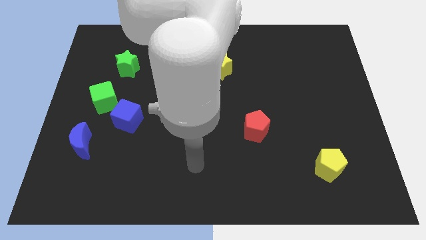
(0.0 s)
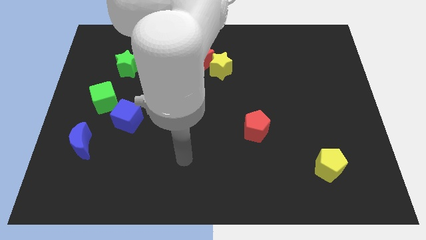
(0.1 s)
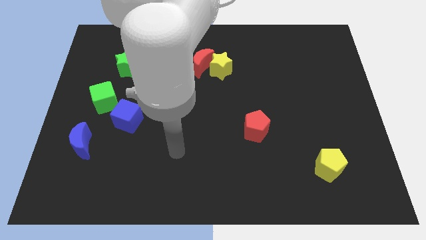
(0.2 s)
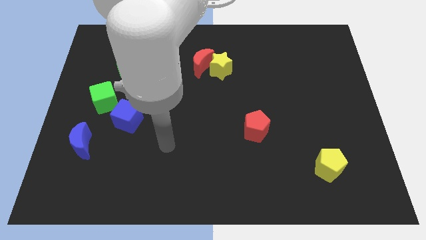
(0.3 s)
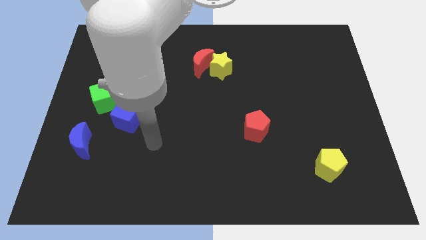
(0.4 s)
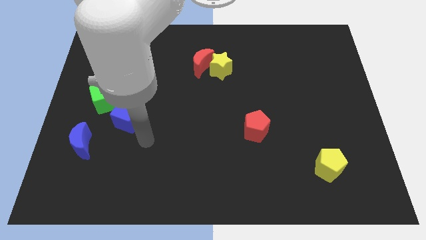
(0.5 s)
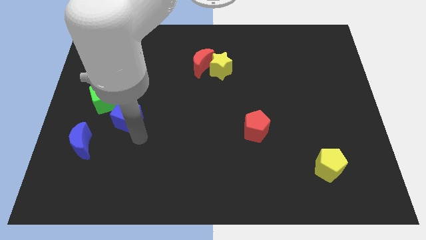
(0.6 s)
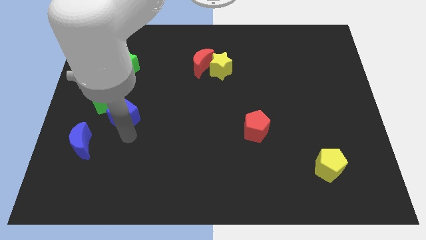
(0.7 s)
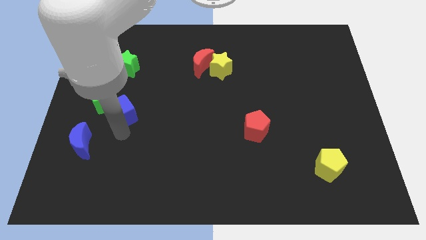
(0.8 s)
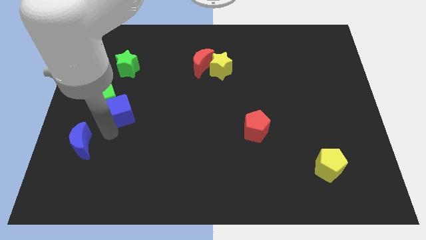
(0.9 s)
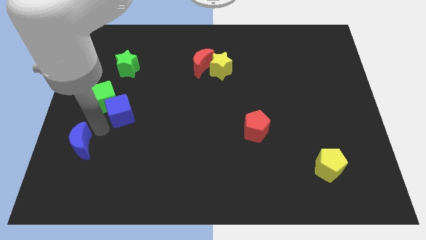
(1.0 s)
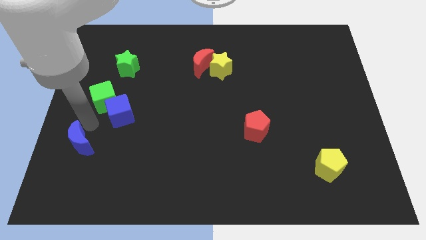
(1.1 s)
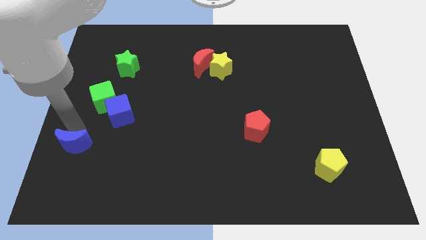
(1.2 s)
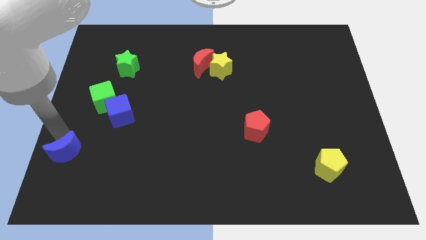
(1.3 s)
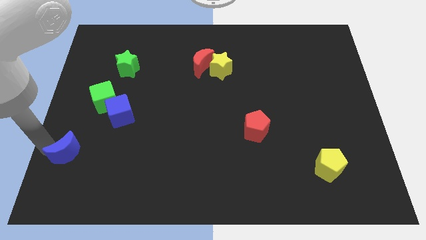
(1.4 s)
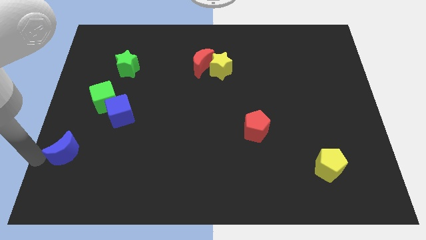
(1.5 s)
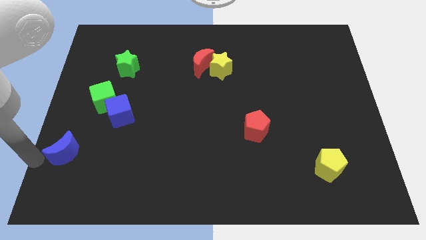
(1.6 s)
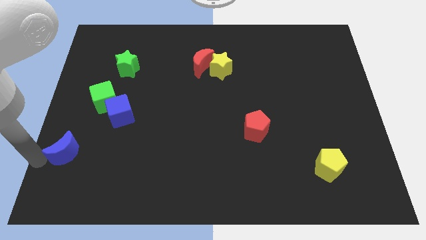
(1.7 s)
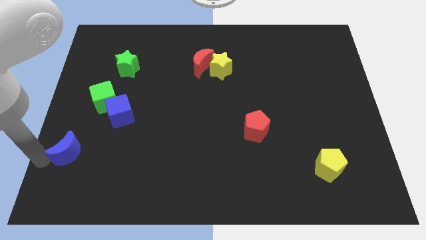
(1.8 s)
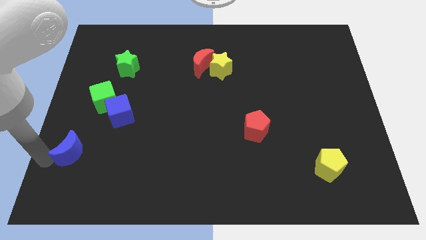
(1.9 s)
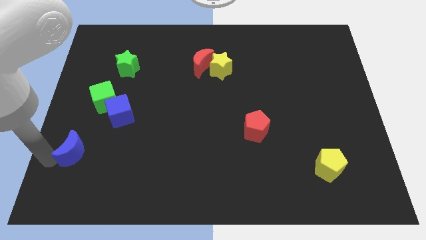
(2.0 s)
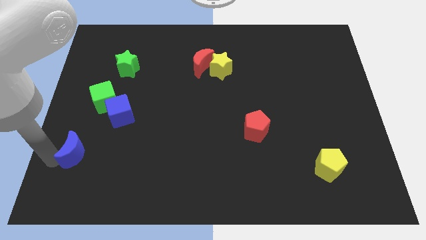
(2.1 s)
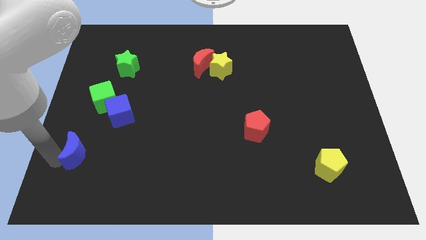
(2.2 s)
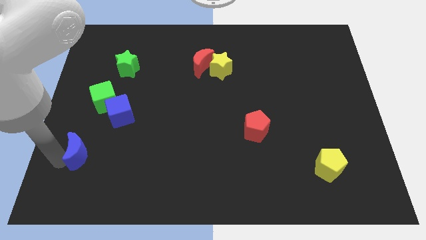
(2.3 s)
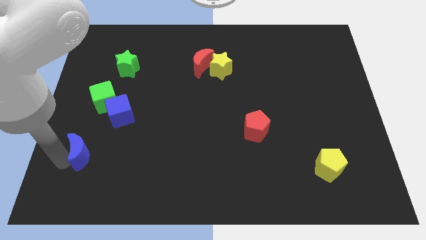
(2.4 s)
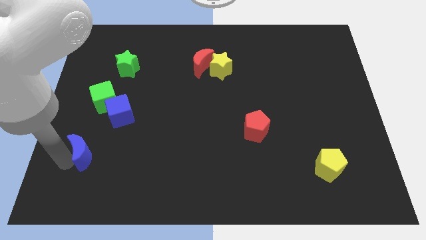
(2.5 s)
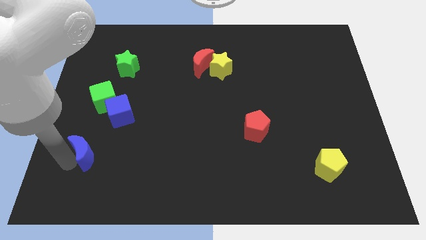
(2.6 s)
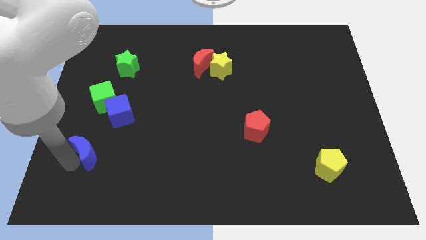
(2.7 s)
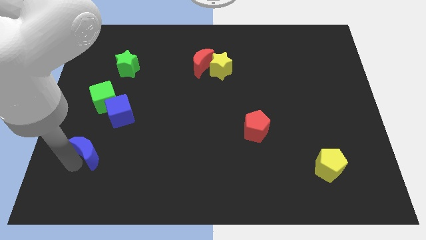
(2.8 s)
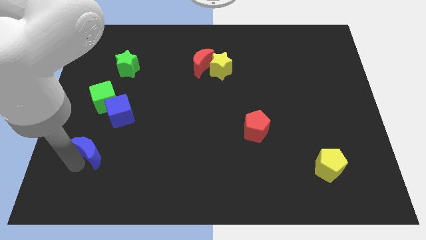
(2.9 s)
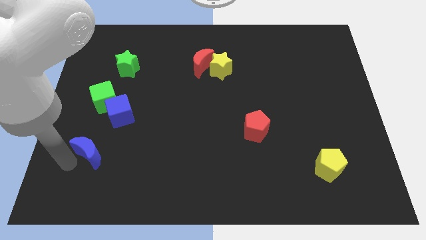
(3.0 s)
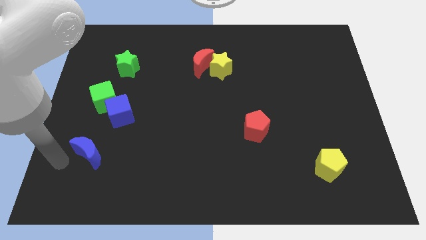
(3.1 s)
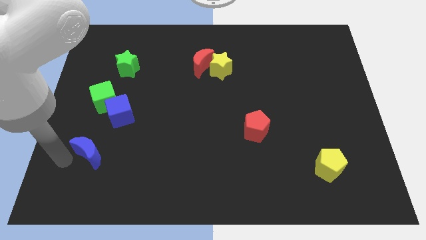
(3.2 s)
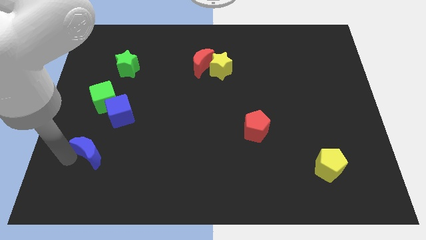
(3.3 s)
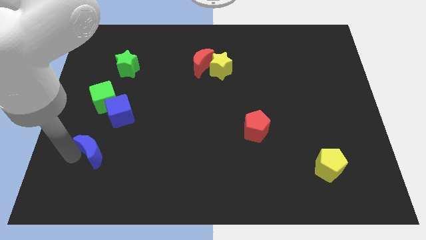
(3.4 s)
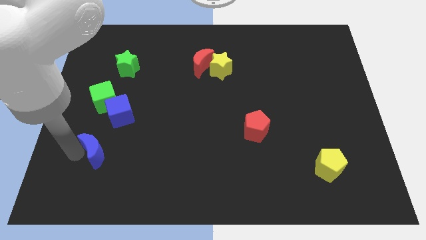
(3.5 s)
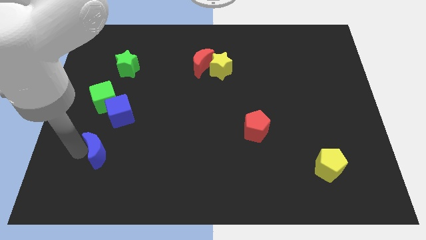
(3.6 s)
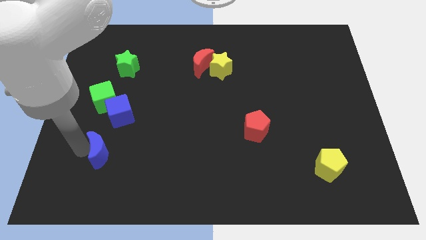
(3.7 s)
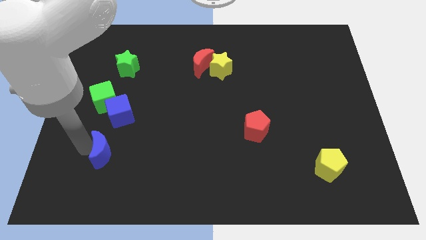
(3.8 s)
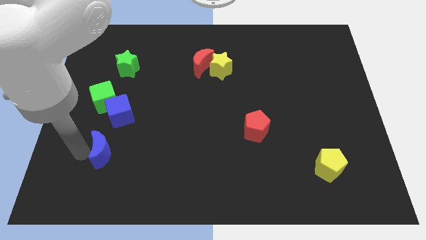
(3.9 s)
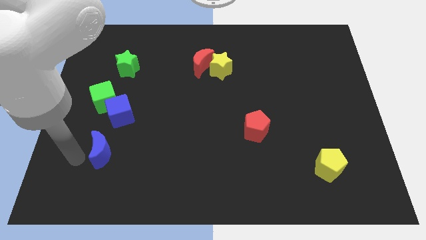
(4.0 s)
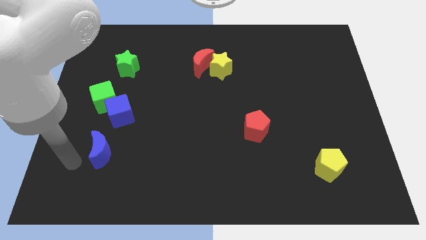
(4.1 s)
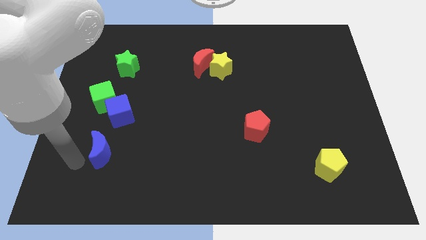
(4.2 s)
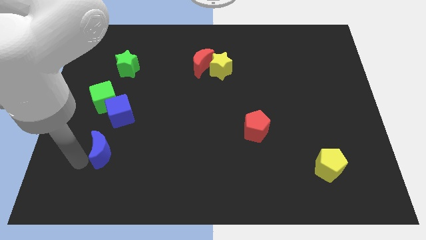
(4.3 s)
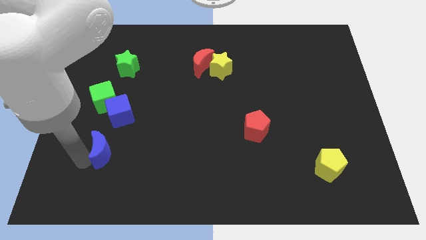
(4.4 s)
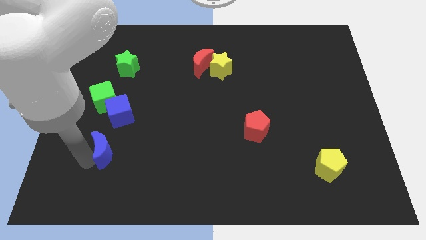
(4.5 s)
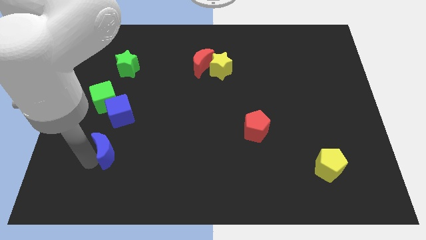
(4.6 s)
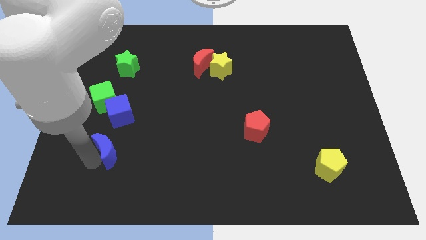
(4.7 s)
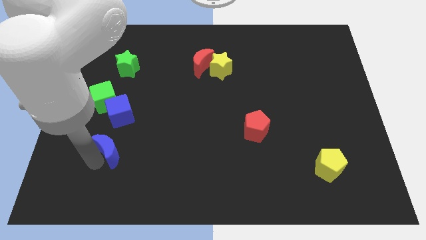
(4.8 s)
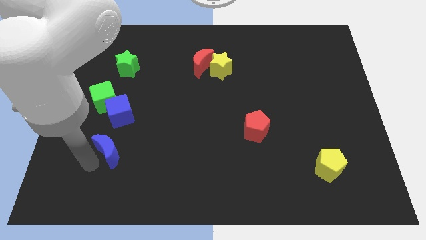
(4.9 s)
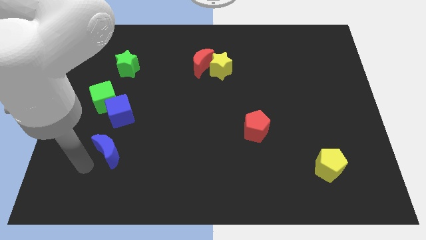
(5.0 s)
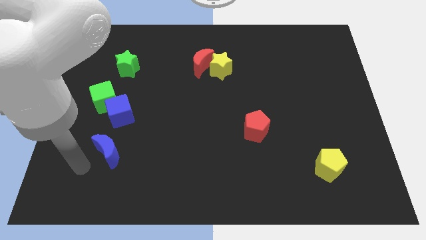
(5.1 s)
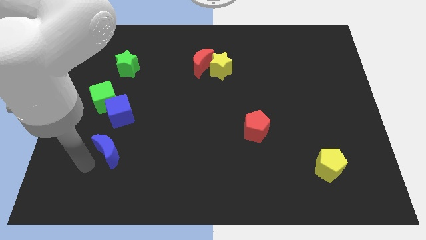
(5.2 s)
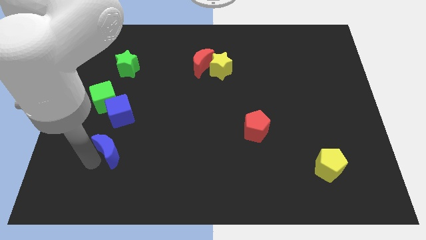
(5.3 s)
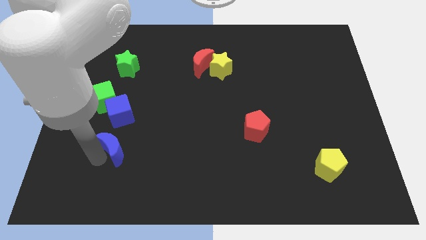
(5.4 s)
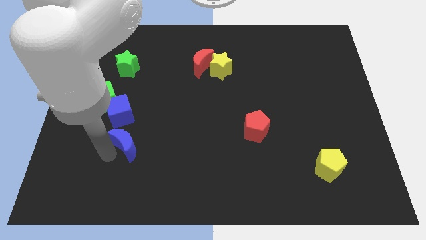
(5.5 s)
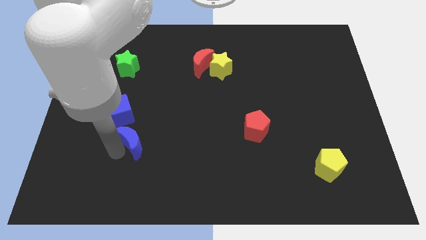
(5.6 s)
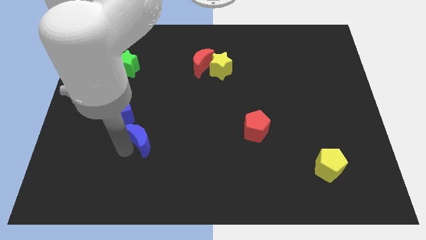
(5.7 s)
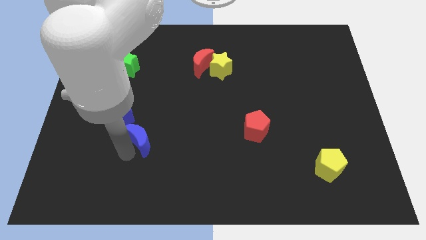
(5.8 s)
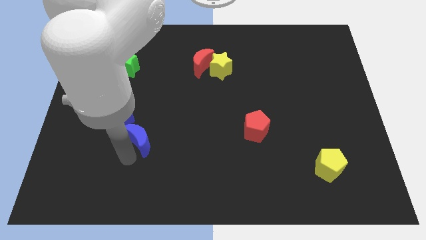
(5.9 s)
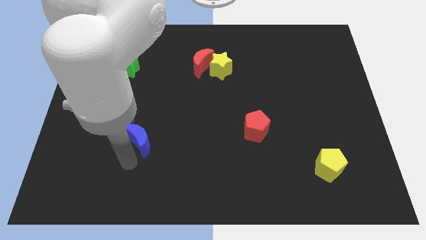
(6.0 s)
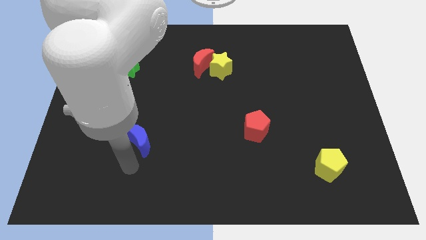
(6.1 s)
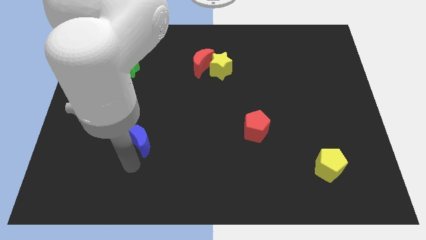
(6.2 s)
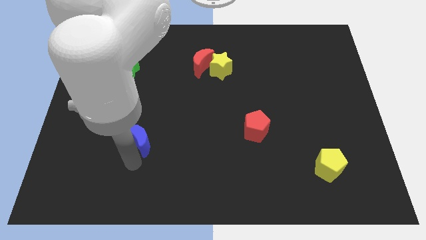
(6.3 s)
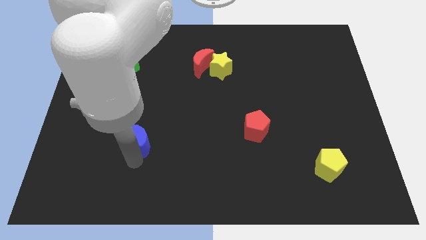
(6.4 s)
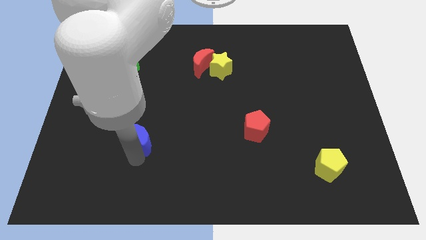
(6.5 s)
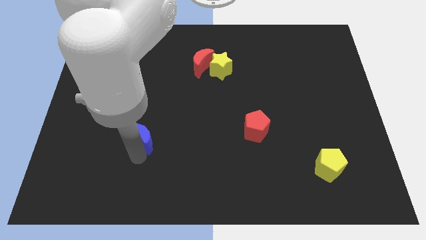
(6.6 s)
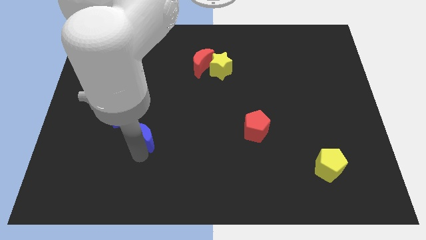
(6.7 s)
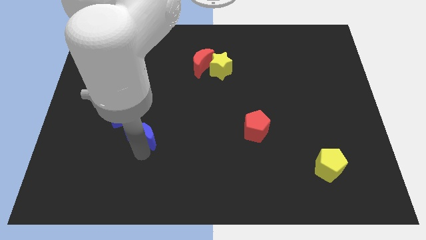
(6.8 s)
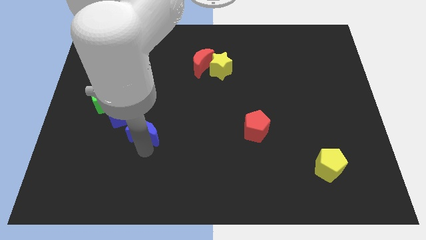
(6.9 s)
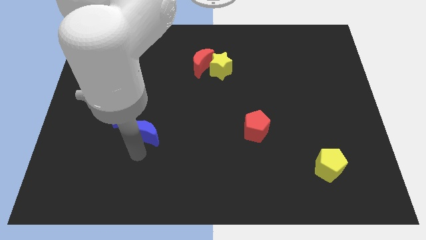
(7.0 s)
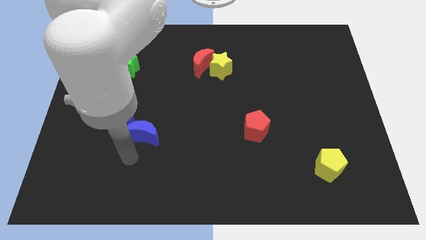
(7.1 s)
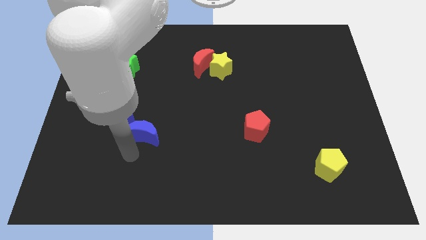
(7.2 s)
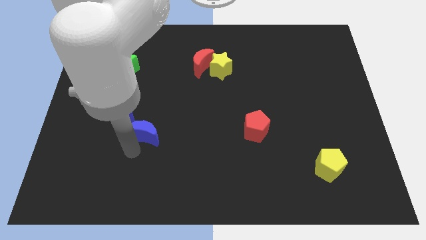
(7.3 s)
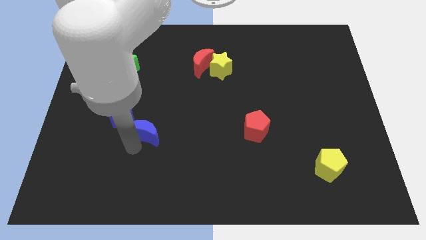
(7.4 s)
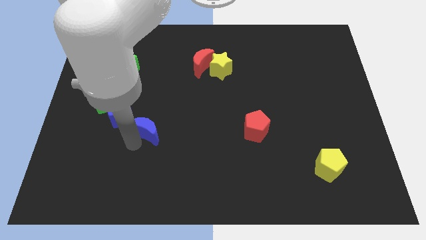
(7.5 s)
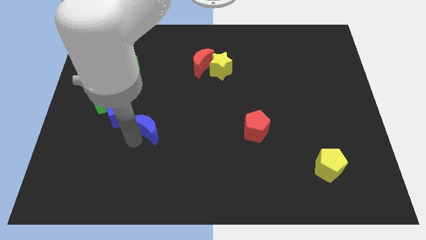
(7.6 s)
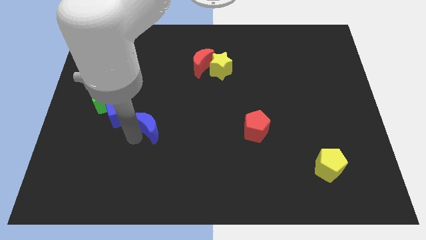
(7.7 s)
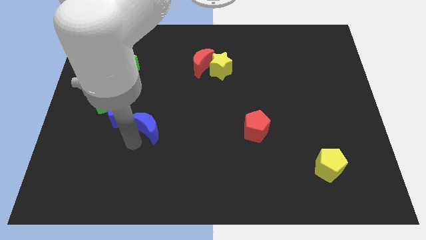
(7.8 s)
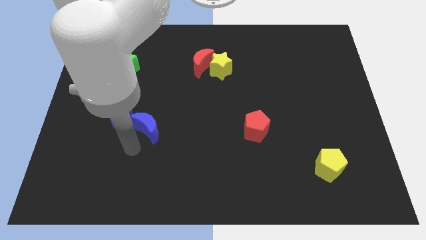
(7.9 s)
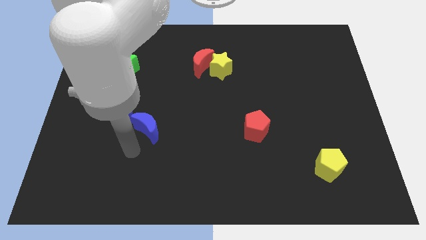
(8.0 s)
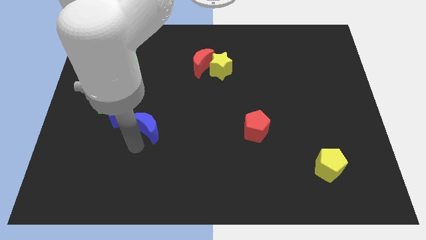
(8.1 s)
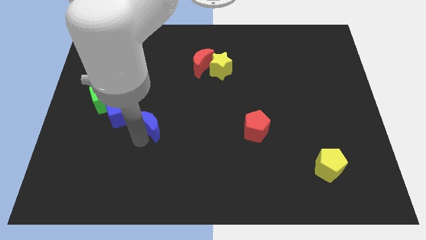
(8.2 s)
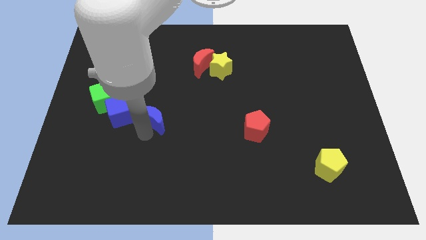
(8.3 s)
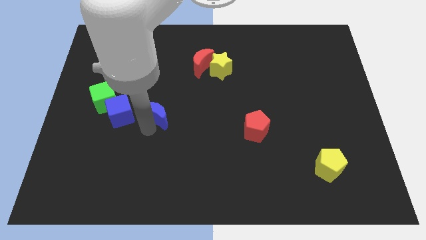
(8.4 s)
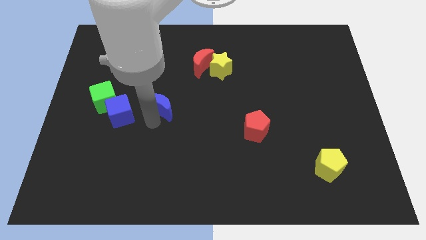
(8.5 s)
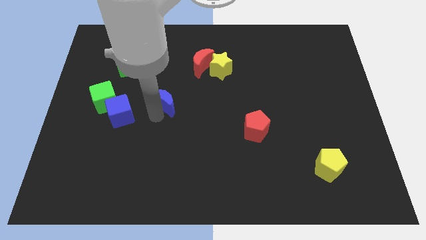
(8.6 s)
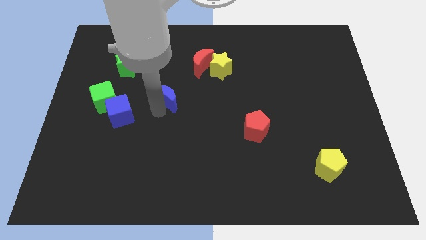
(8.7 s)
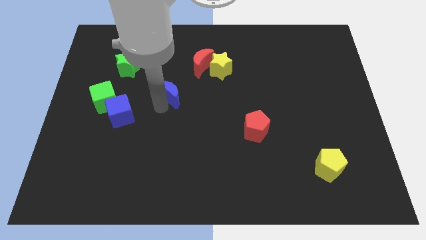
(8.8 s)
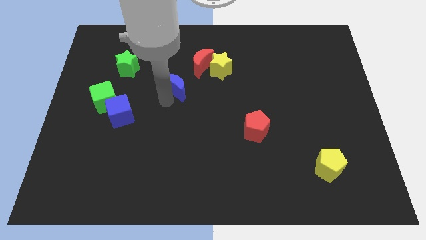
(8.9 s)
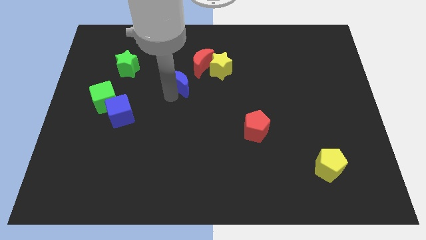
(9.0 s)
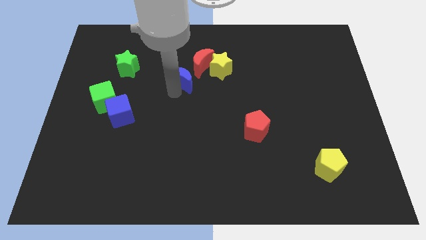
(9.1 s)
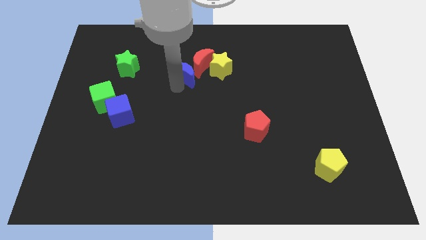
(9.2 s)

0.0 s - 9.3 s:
push the blue moon towards the red moon
